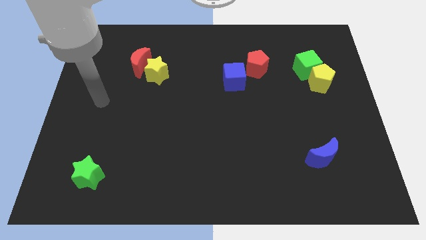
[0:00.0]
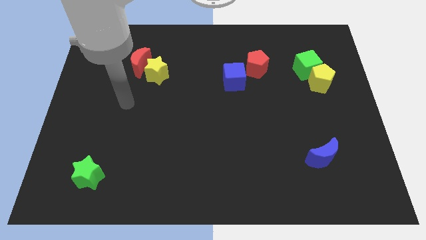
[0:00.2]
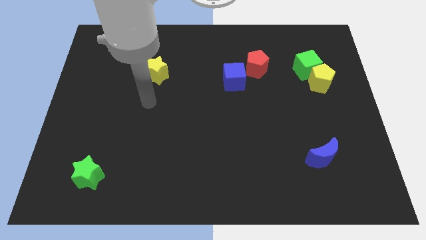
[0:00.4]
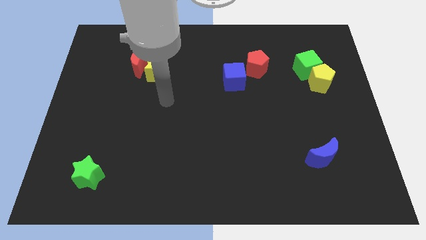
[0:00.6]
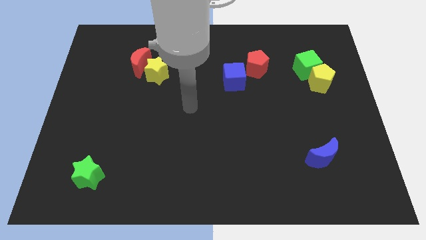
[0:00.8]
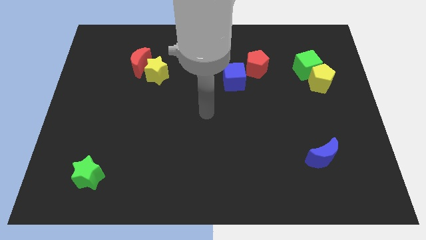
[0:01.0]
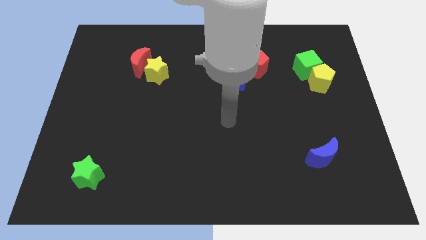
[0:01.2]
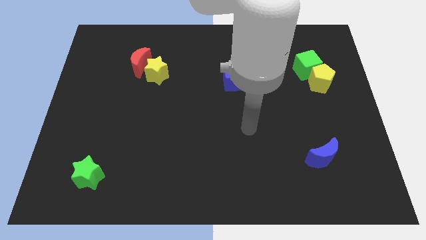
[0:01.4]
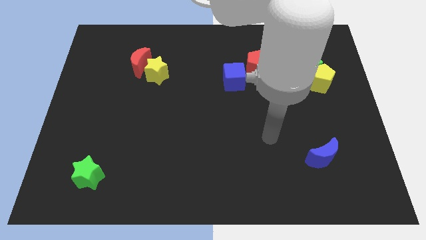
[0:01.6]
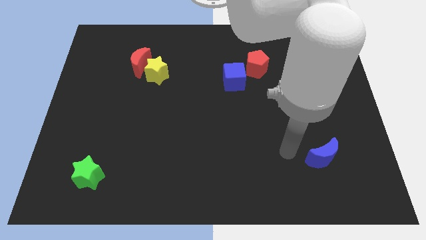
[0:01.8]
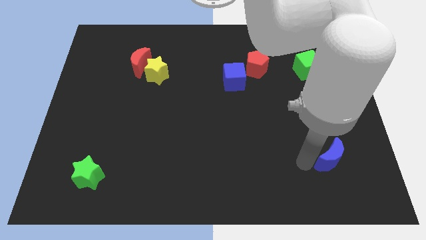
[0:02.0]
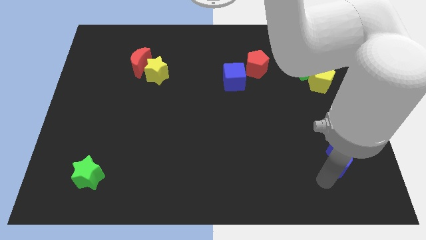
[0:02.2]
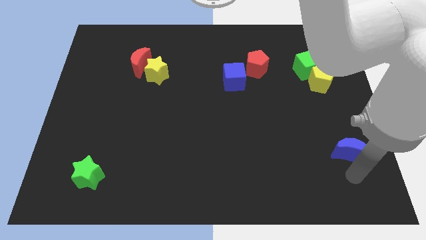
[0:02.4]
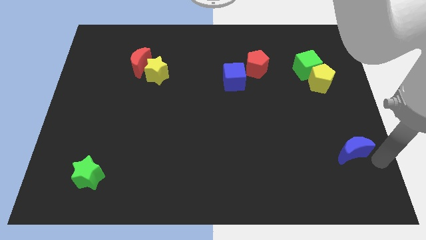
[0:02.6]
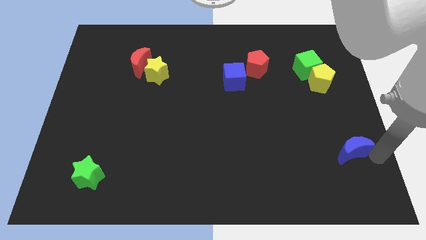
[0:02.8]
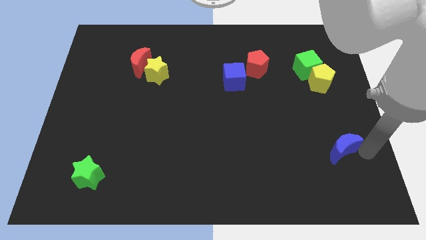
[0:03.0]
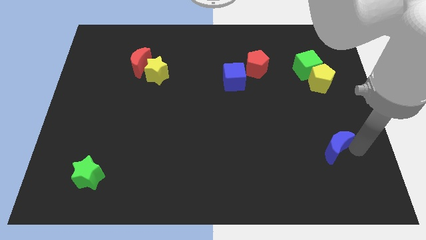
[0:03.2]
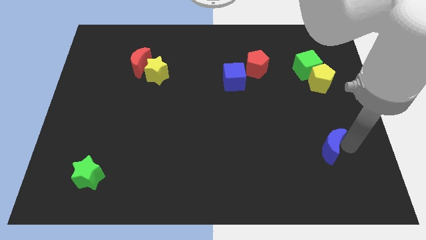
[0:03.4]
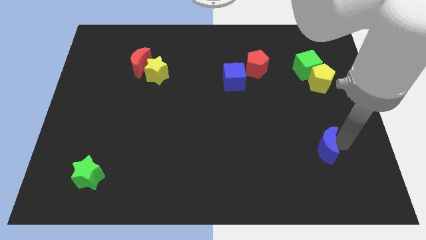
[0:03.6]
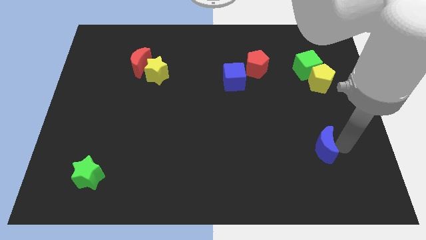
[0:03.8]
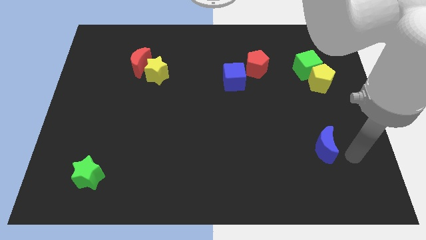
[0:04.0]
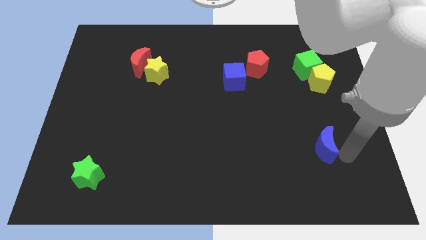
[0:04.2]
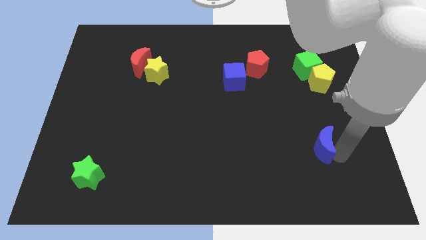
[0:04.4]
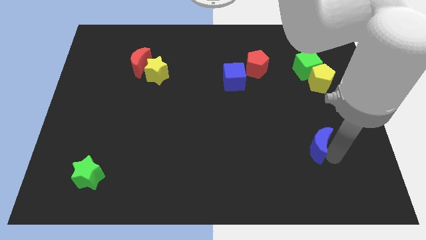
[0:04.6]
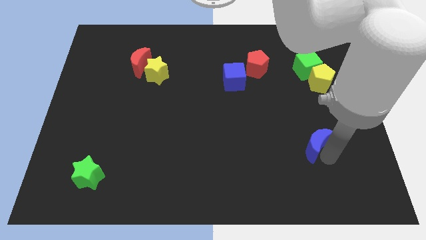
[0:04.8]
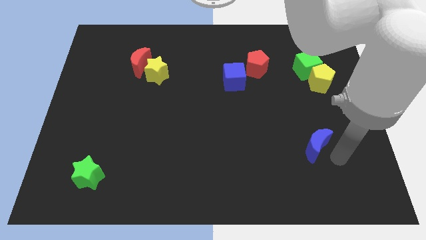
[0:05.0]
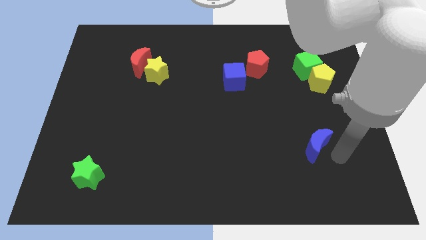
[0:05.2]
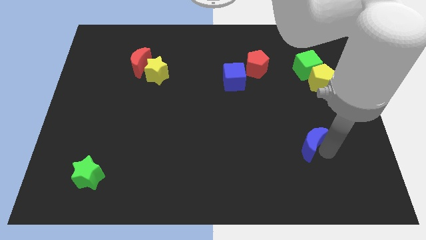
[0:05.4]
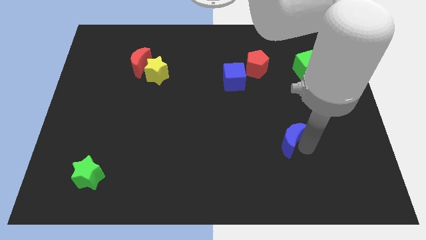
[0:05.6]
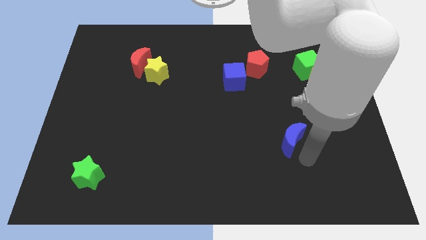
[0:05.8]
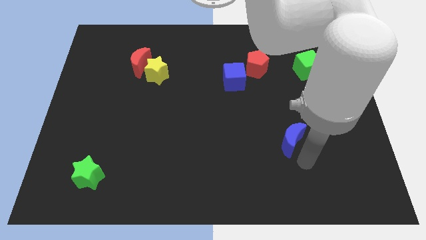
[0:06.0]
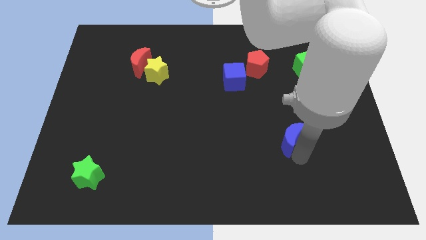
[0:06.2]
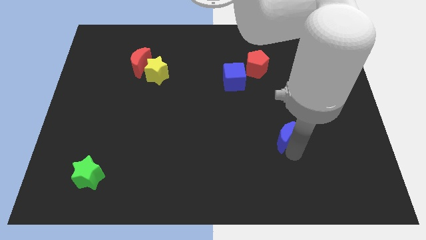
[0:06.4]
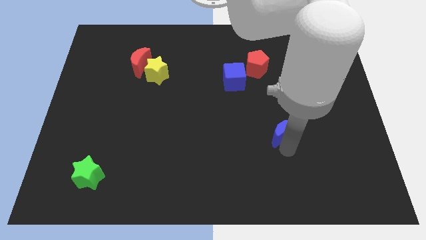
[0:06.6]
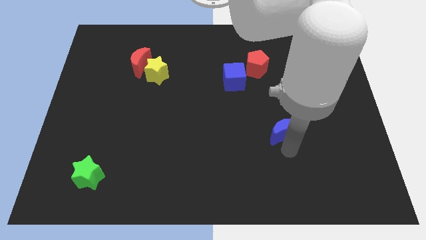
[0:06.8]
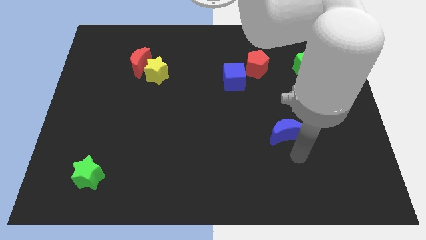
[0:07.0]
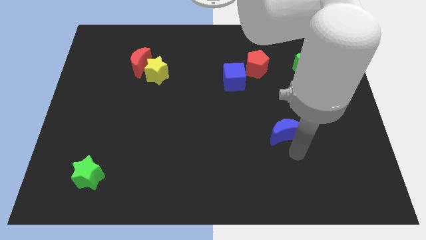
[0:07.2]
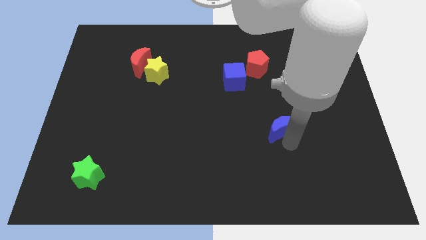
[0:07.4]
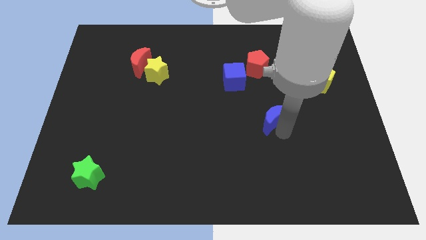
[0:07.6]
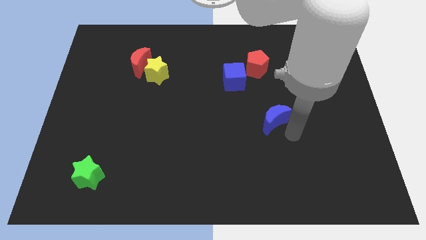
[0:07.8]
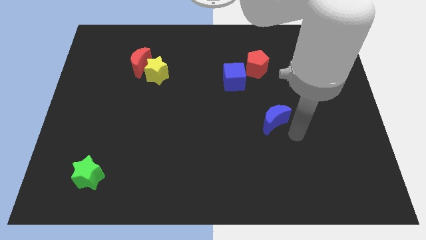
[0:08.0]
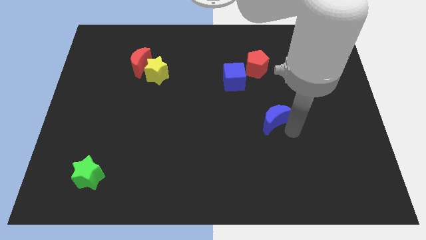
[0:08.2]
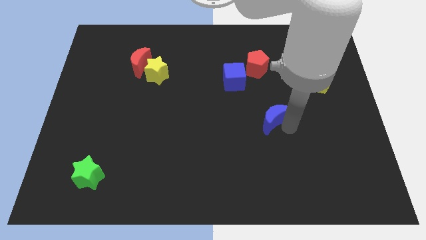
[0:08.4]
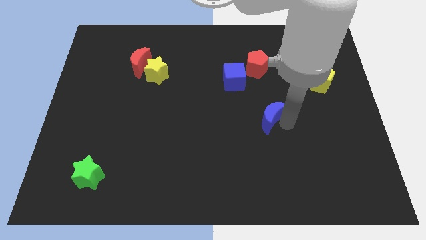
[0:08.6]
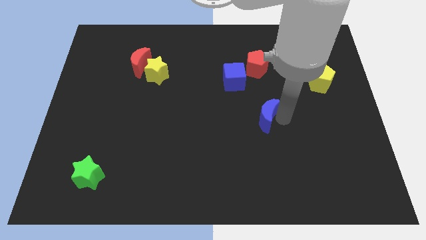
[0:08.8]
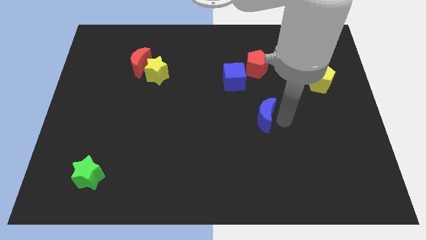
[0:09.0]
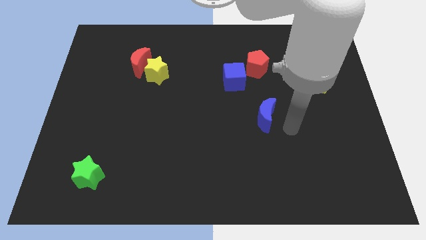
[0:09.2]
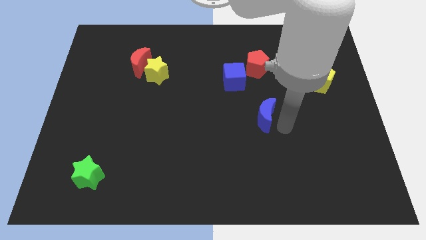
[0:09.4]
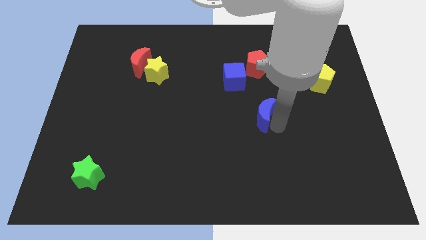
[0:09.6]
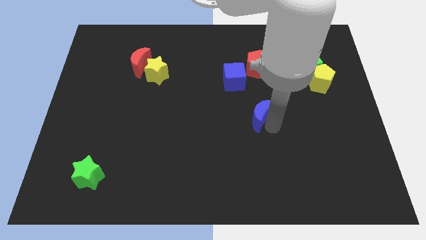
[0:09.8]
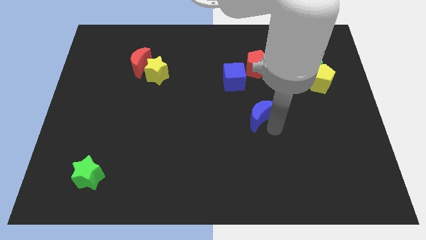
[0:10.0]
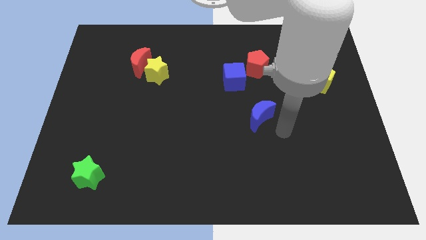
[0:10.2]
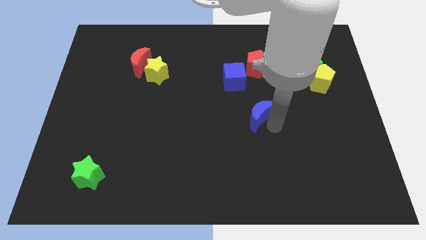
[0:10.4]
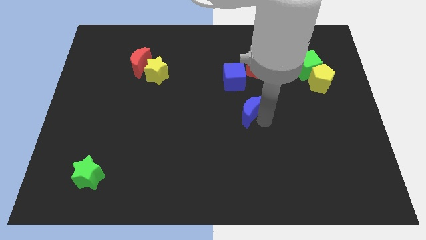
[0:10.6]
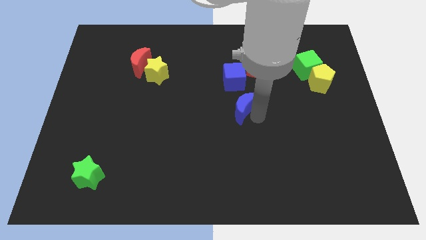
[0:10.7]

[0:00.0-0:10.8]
push the blue moon upwards and left

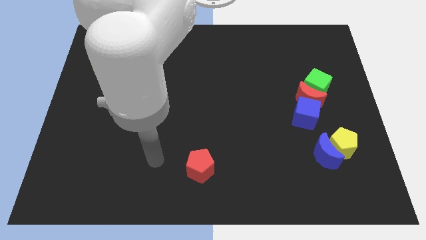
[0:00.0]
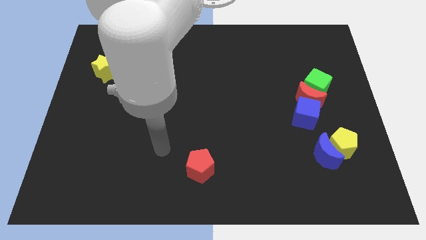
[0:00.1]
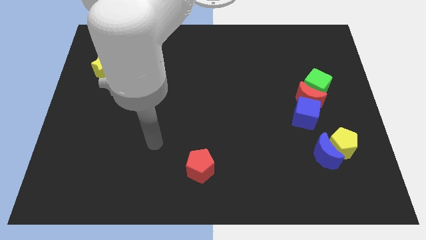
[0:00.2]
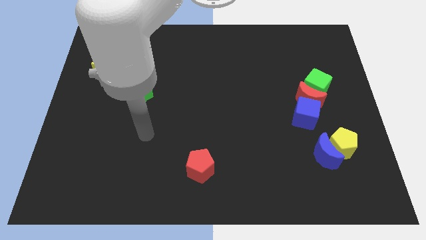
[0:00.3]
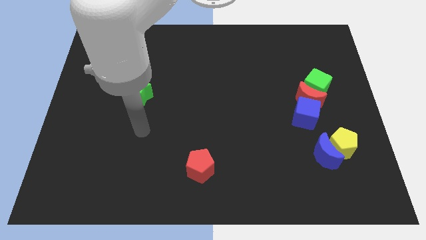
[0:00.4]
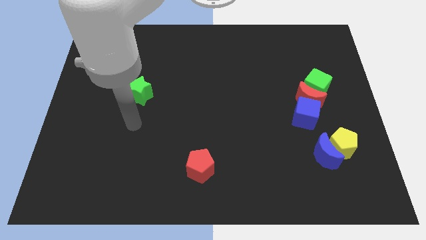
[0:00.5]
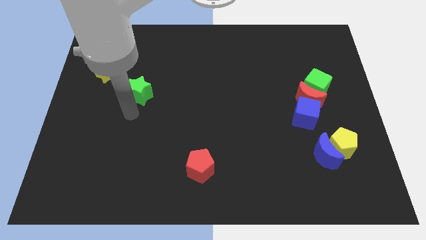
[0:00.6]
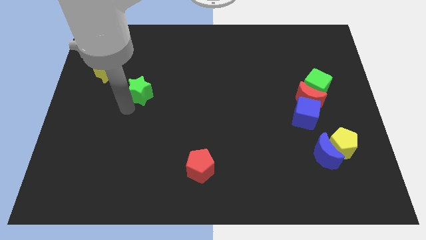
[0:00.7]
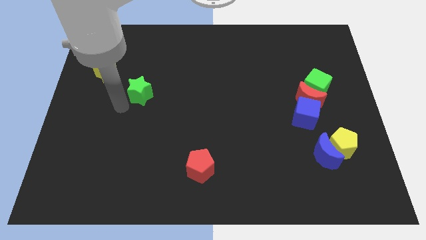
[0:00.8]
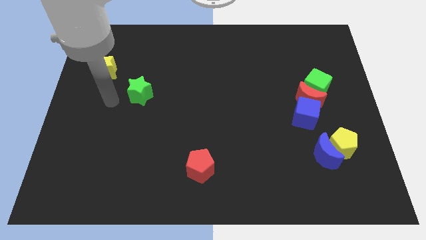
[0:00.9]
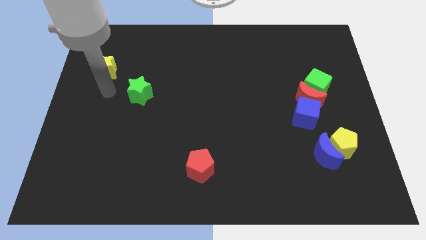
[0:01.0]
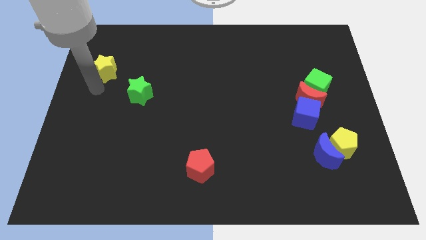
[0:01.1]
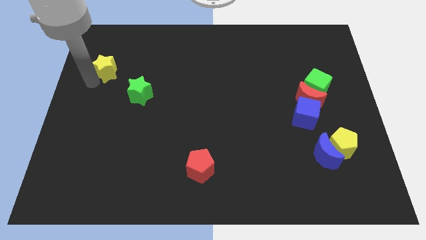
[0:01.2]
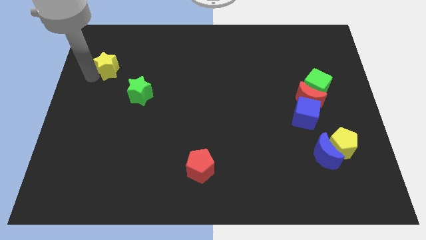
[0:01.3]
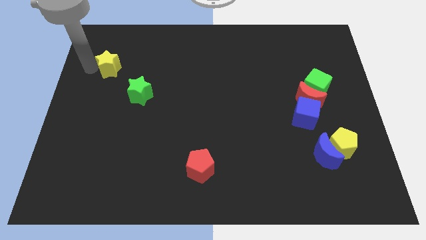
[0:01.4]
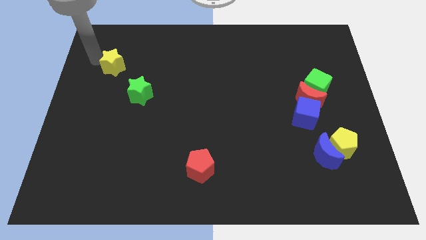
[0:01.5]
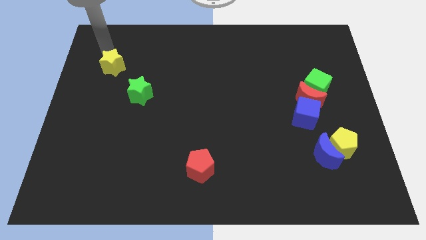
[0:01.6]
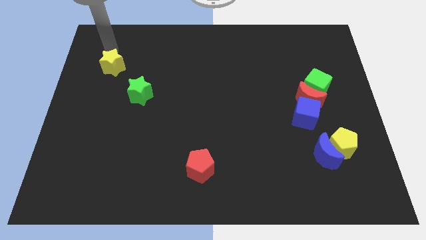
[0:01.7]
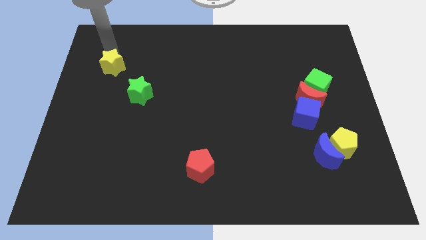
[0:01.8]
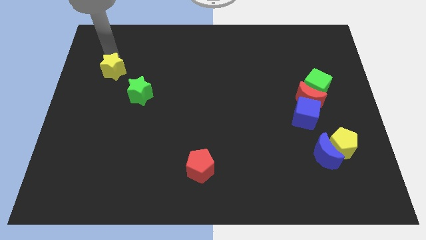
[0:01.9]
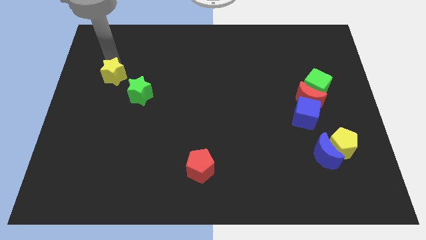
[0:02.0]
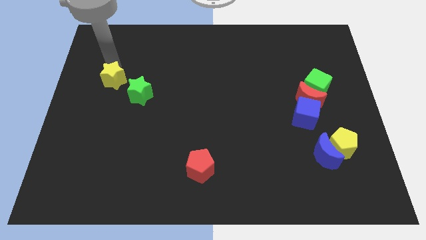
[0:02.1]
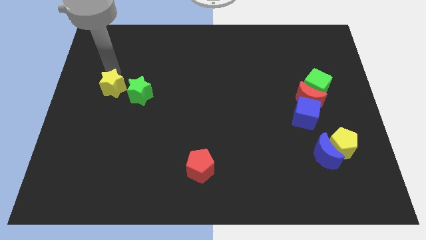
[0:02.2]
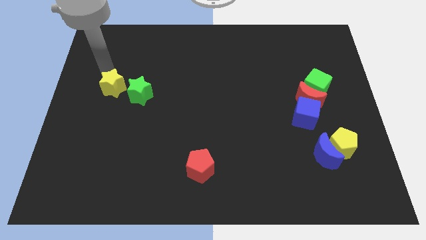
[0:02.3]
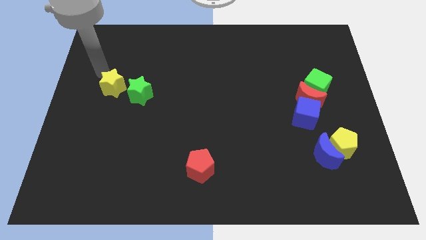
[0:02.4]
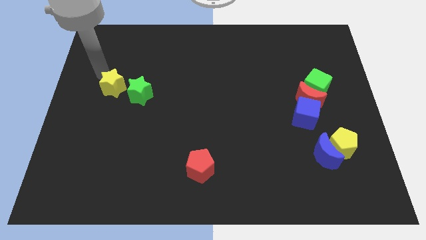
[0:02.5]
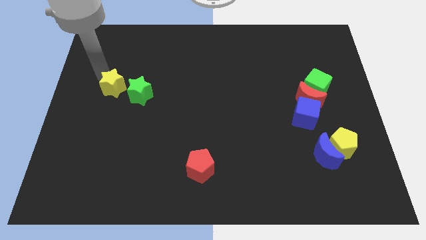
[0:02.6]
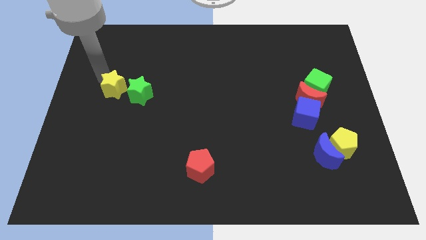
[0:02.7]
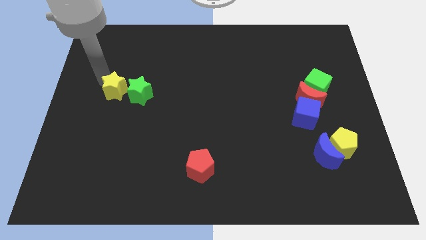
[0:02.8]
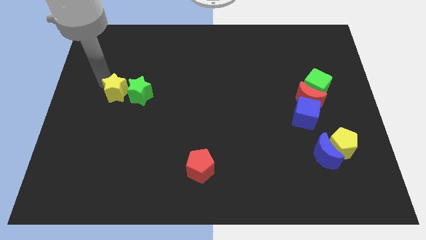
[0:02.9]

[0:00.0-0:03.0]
slightly slide the yellow star down and then right
